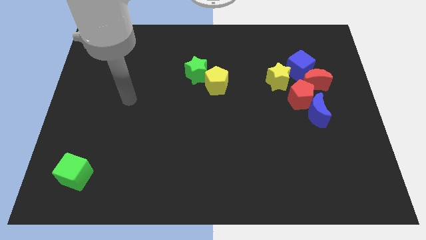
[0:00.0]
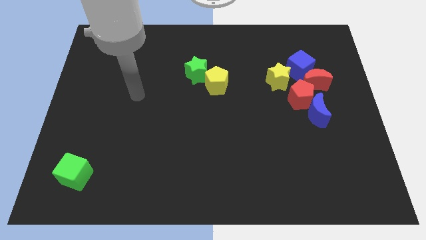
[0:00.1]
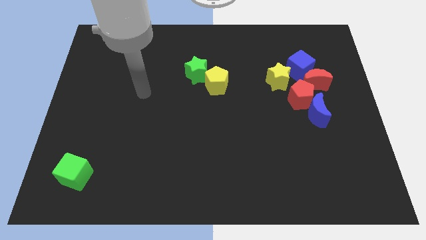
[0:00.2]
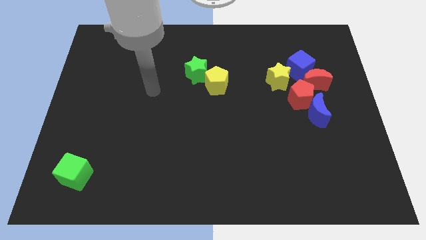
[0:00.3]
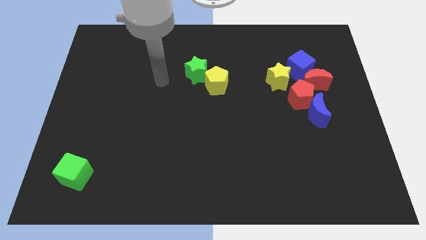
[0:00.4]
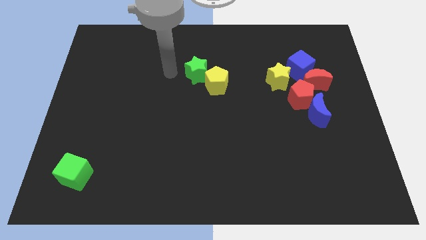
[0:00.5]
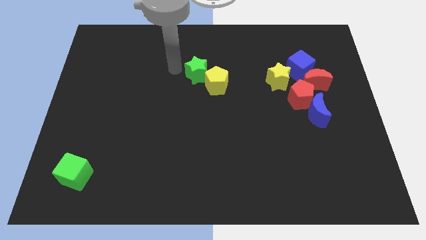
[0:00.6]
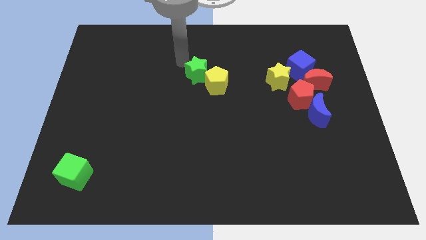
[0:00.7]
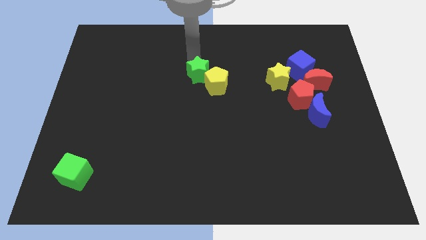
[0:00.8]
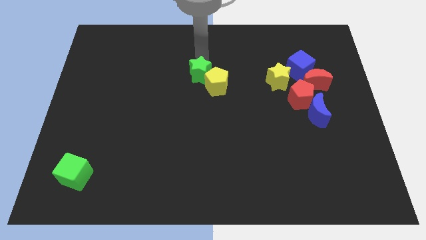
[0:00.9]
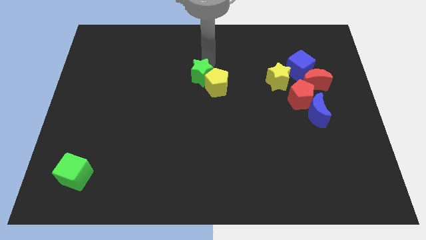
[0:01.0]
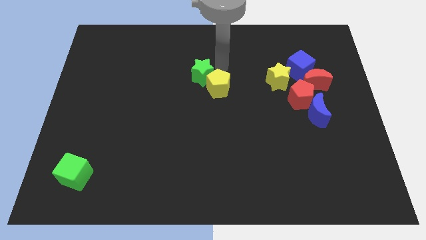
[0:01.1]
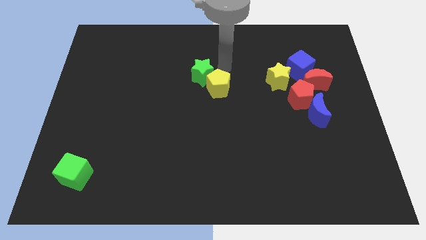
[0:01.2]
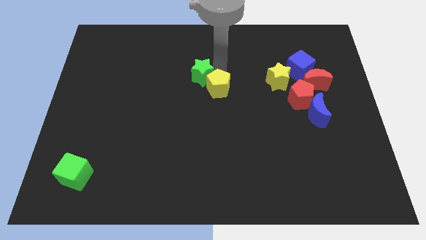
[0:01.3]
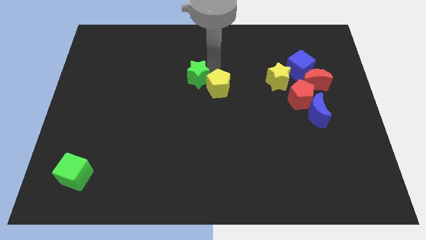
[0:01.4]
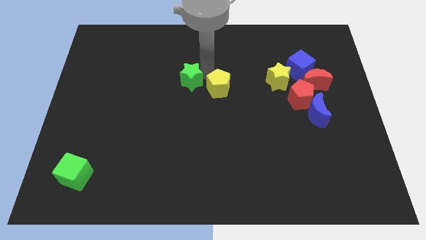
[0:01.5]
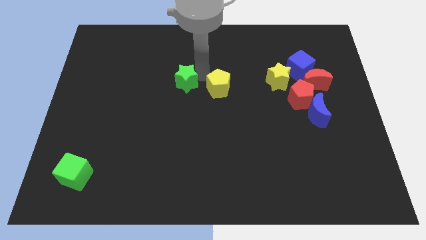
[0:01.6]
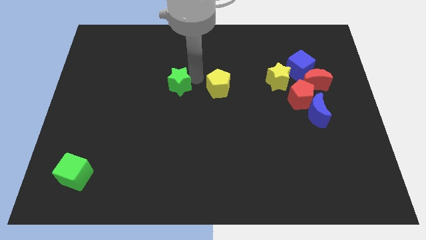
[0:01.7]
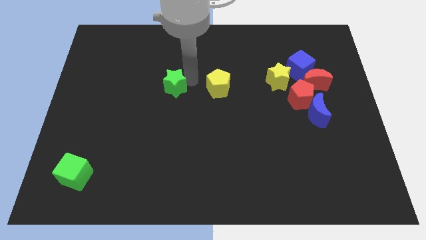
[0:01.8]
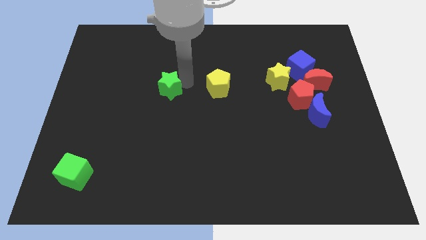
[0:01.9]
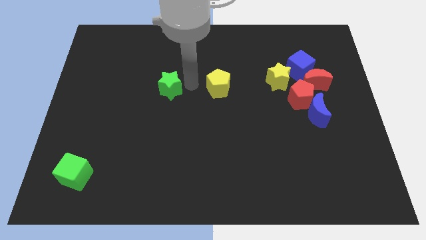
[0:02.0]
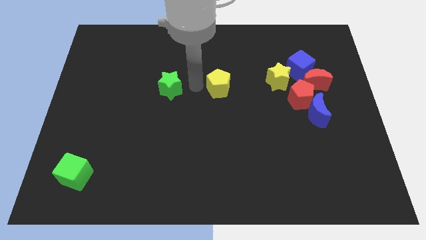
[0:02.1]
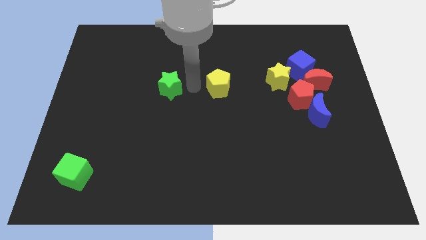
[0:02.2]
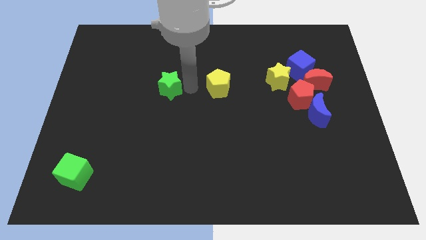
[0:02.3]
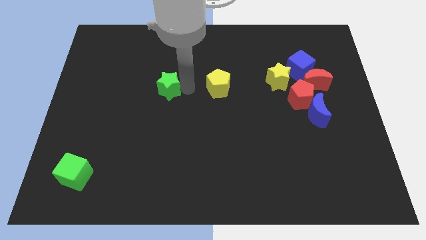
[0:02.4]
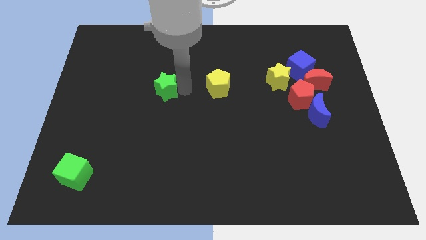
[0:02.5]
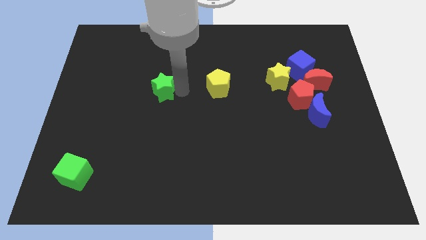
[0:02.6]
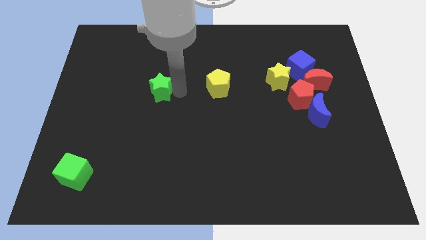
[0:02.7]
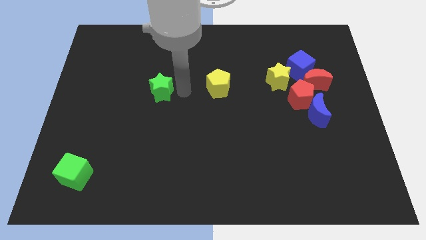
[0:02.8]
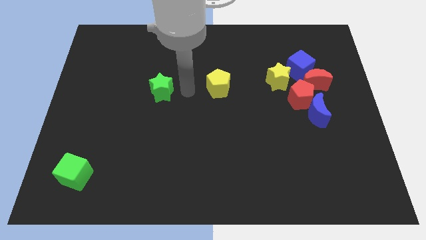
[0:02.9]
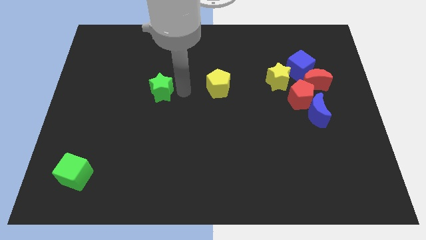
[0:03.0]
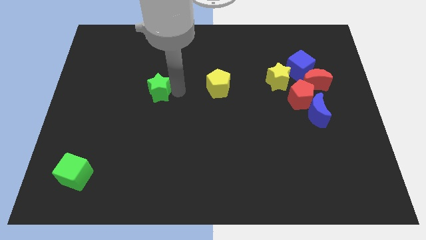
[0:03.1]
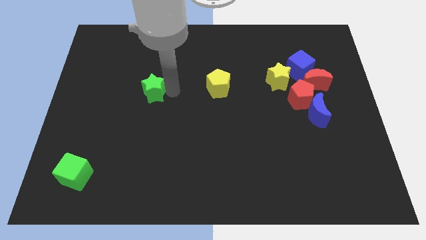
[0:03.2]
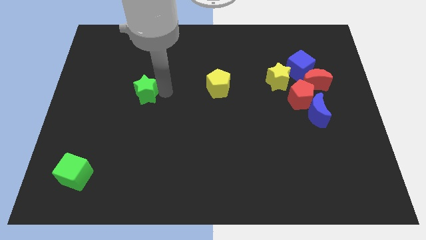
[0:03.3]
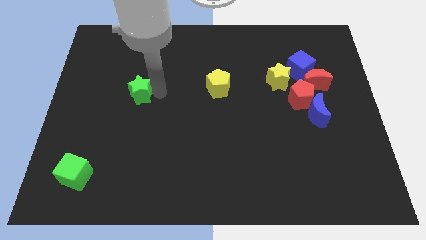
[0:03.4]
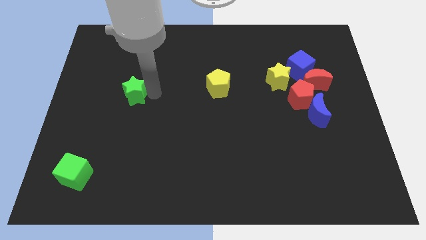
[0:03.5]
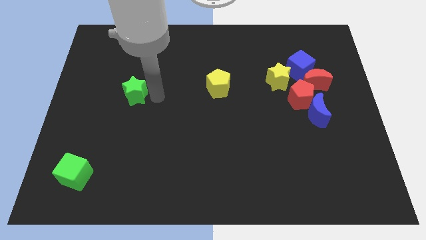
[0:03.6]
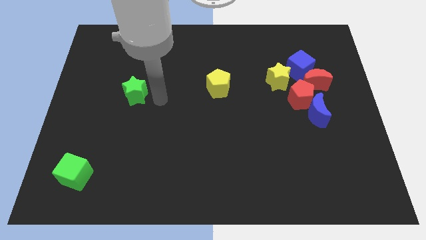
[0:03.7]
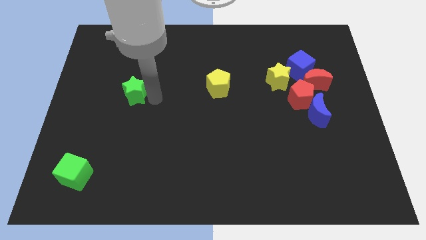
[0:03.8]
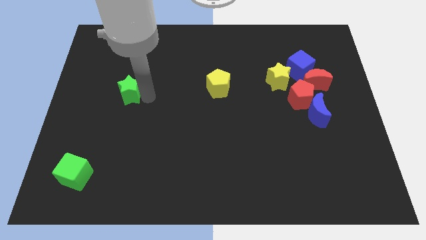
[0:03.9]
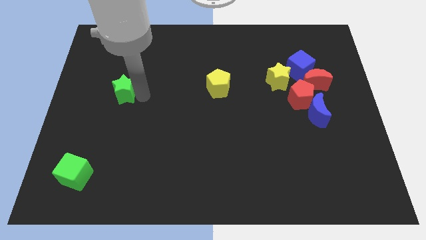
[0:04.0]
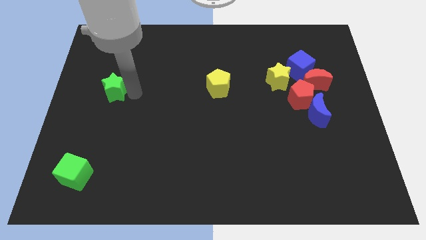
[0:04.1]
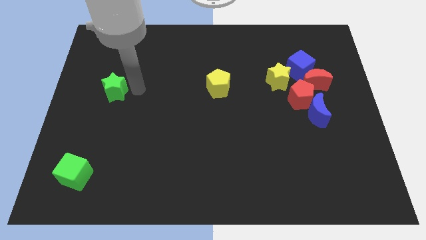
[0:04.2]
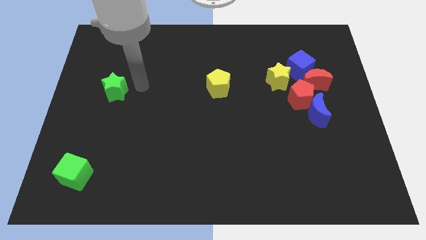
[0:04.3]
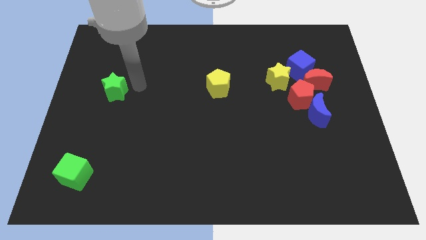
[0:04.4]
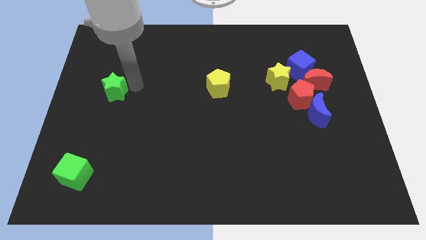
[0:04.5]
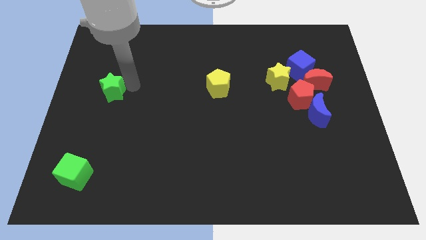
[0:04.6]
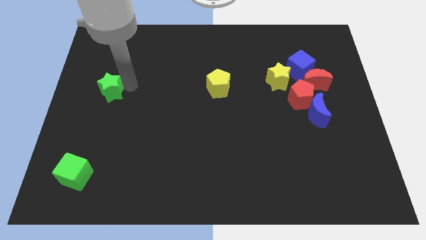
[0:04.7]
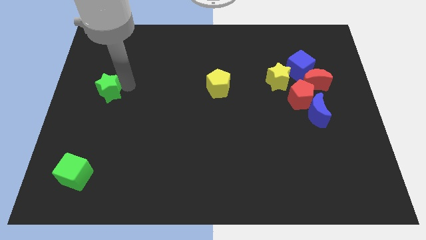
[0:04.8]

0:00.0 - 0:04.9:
move the green star to the left side

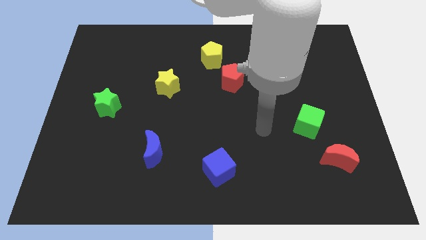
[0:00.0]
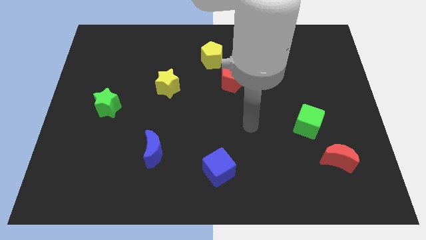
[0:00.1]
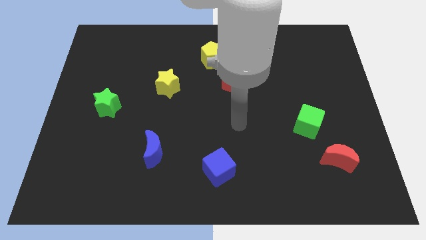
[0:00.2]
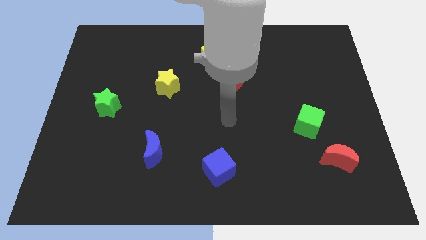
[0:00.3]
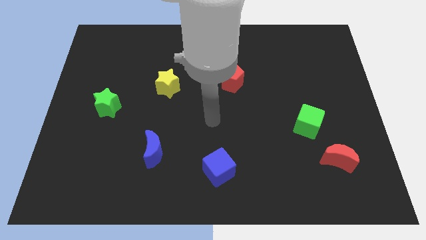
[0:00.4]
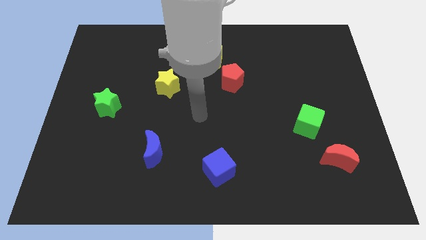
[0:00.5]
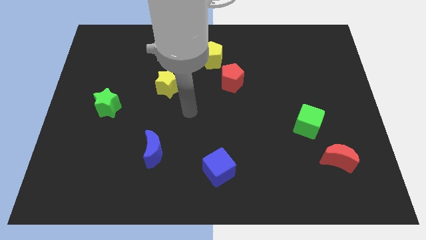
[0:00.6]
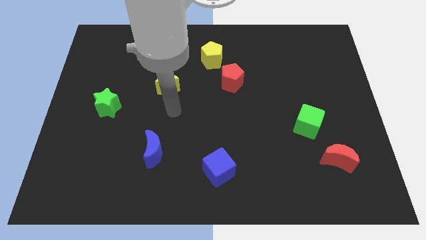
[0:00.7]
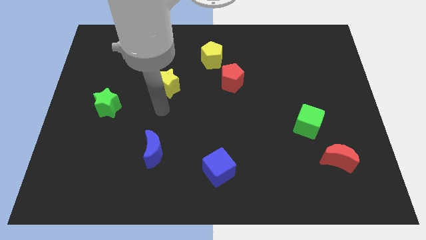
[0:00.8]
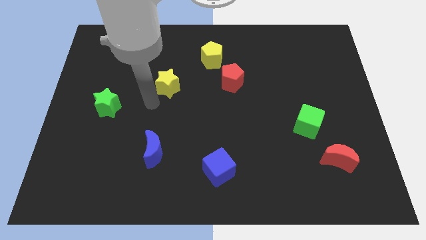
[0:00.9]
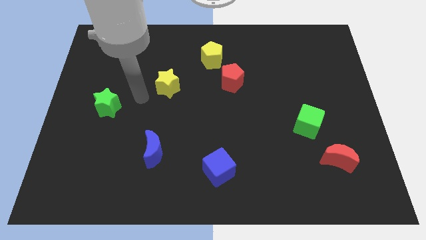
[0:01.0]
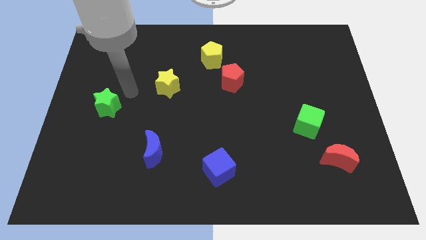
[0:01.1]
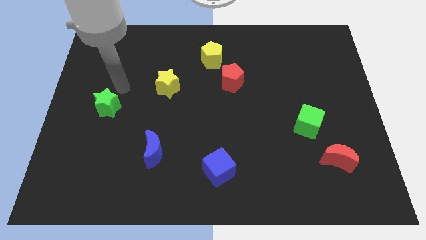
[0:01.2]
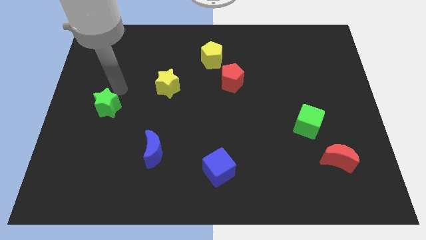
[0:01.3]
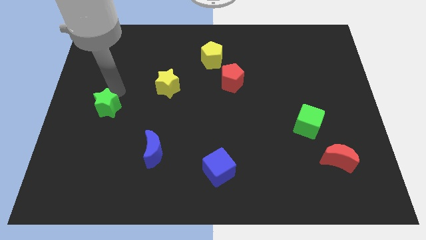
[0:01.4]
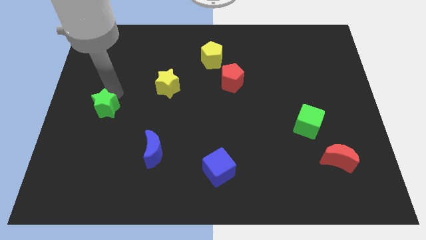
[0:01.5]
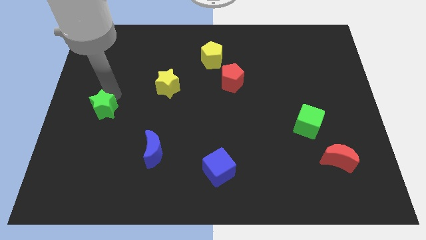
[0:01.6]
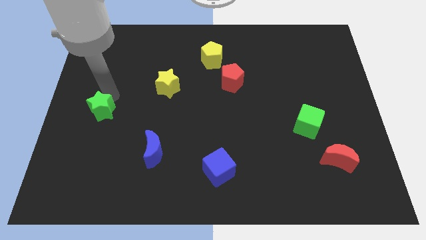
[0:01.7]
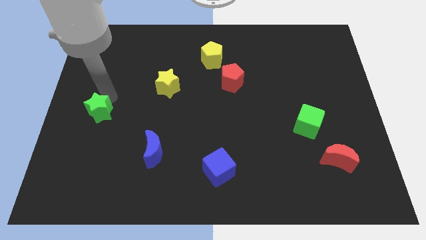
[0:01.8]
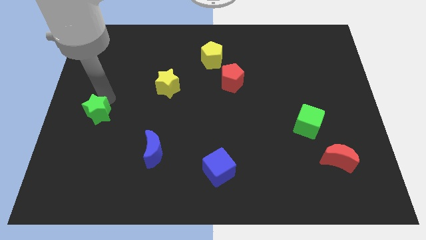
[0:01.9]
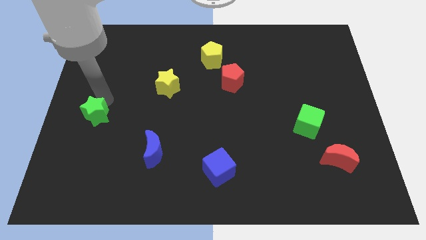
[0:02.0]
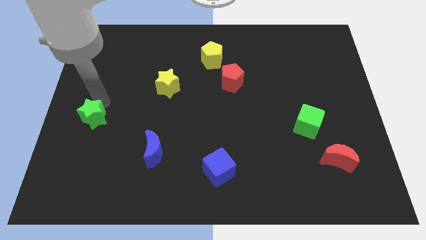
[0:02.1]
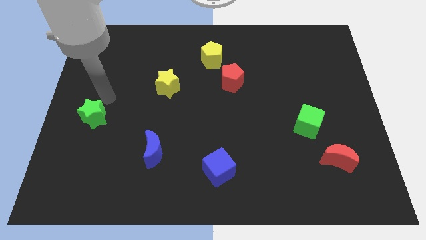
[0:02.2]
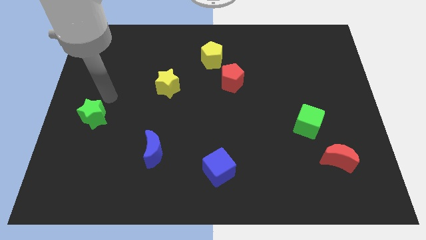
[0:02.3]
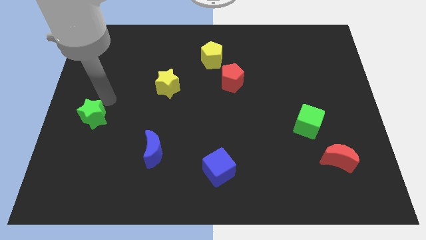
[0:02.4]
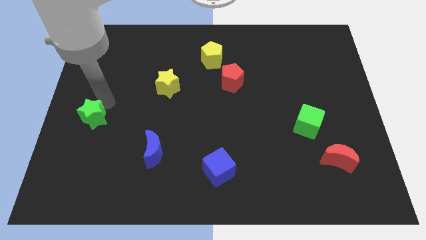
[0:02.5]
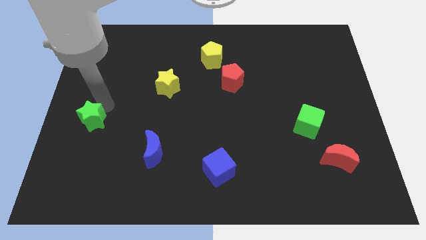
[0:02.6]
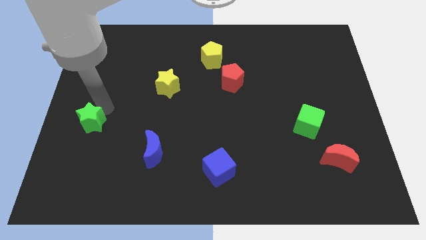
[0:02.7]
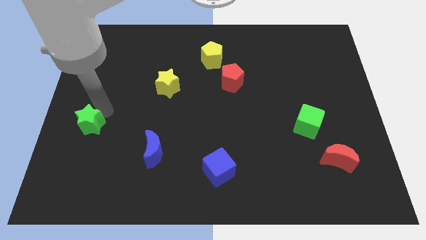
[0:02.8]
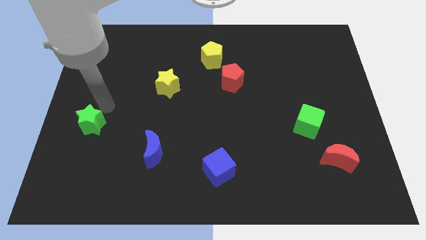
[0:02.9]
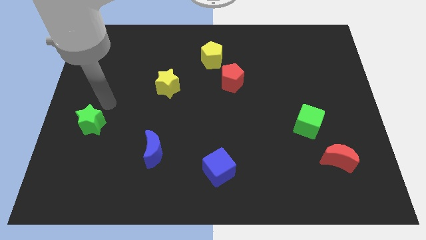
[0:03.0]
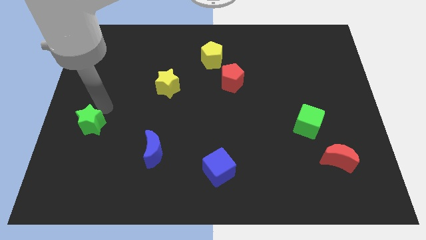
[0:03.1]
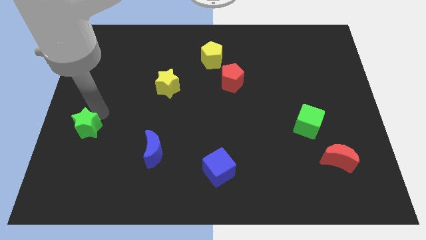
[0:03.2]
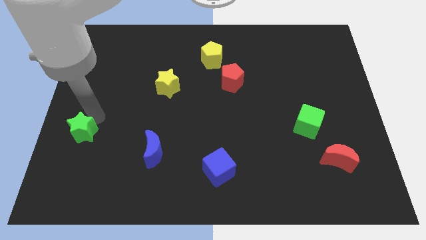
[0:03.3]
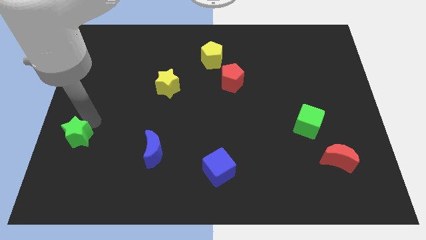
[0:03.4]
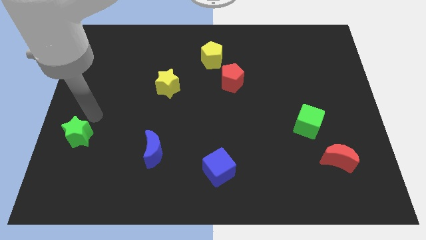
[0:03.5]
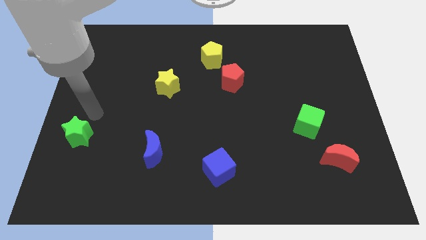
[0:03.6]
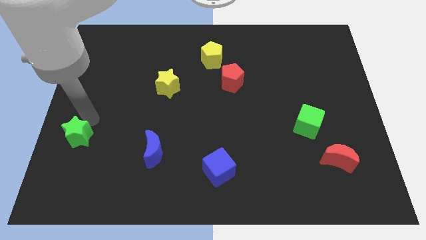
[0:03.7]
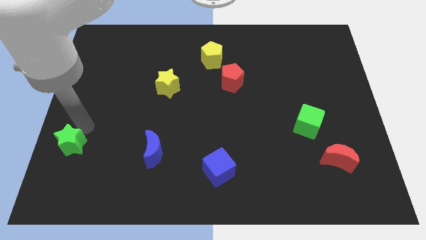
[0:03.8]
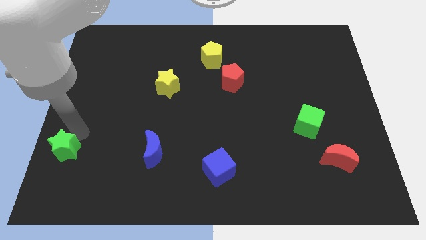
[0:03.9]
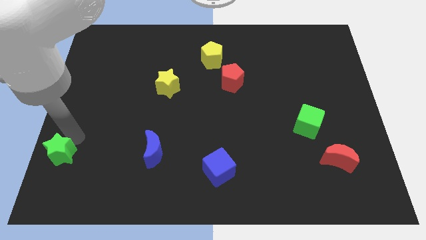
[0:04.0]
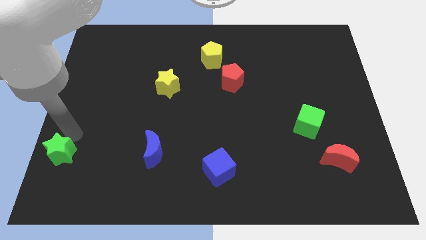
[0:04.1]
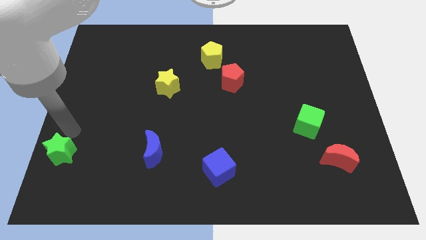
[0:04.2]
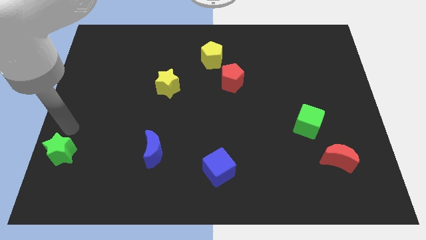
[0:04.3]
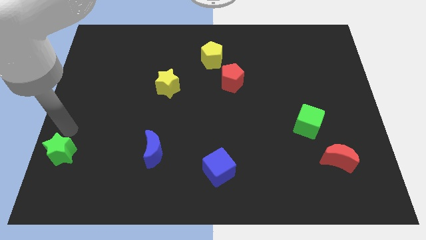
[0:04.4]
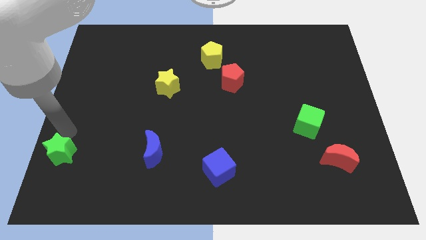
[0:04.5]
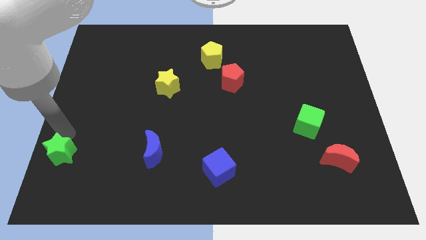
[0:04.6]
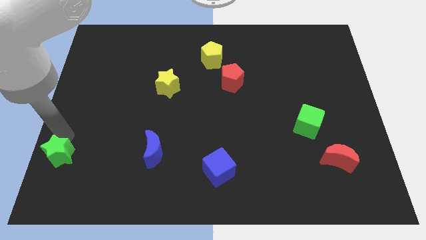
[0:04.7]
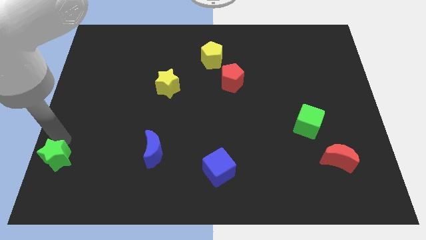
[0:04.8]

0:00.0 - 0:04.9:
move the green star to the lower left corner
